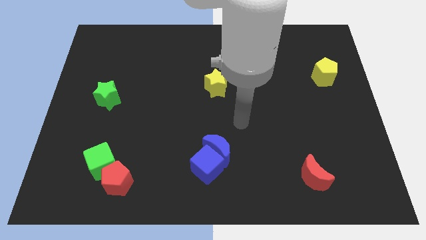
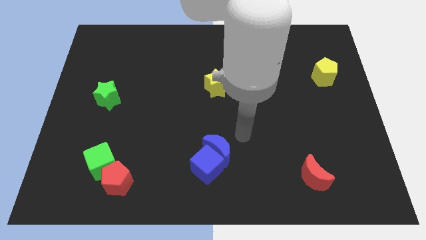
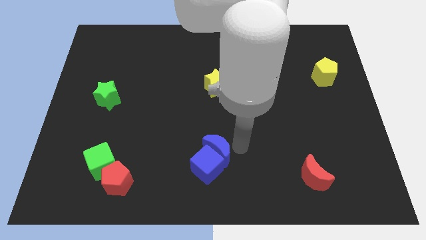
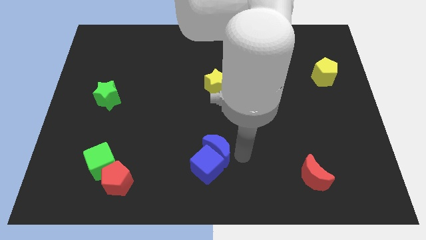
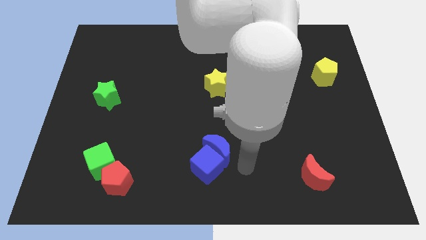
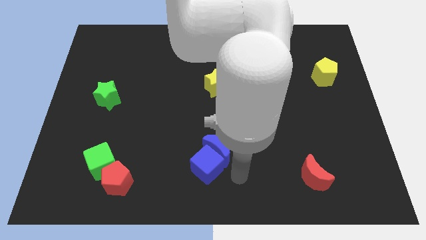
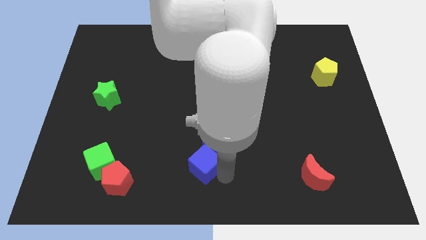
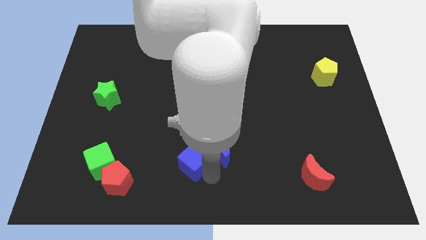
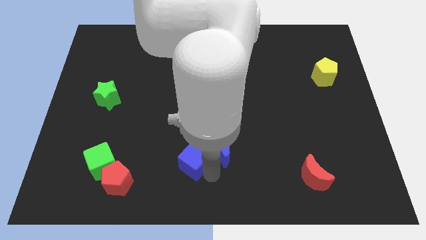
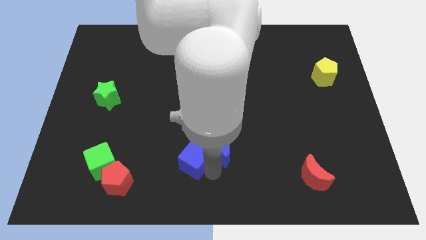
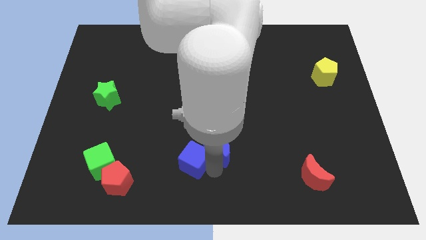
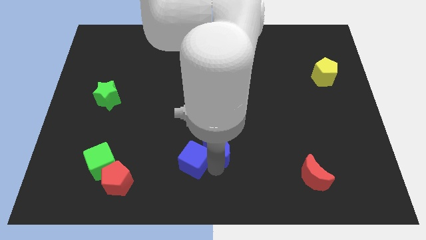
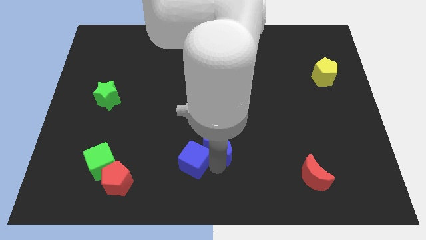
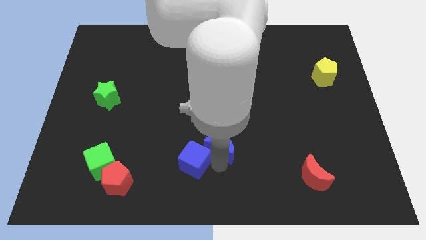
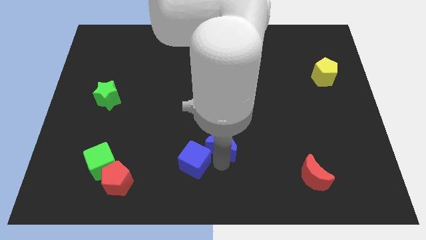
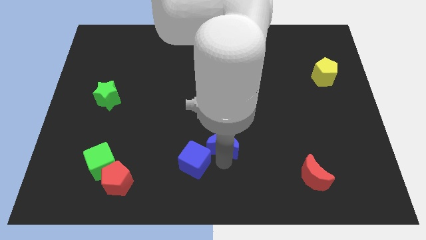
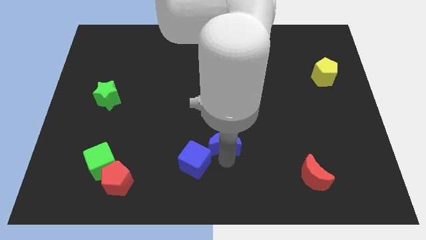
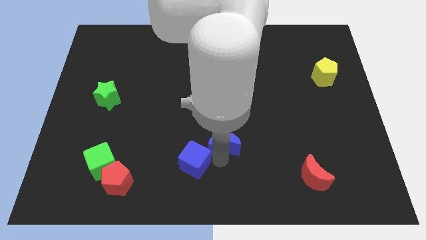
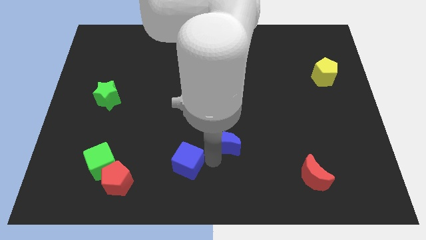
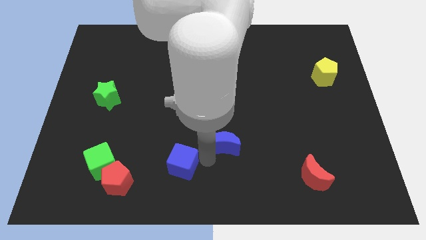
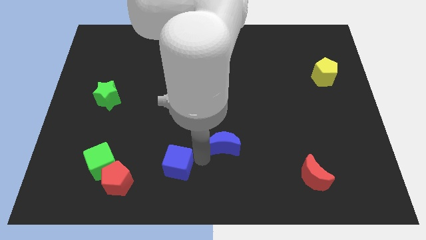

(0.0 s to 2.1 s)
separate the blue moon from the blue cube

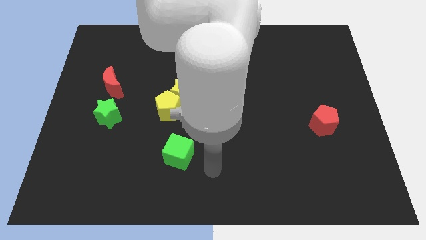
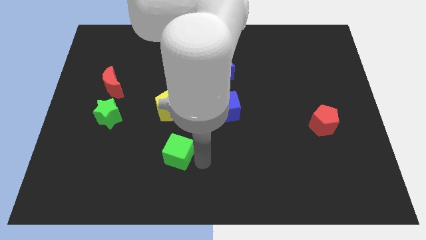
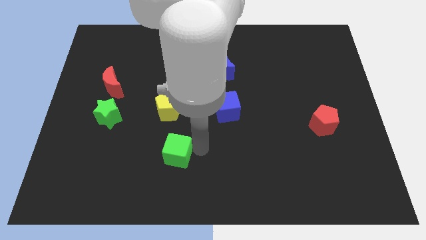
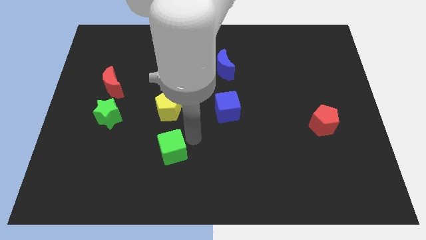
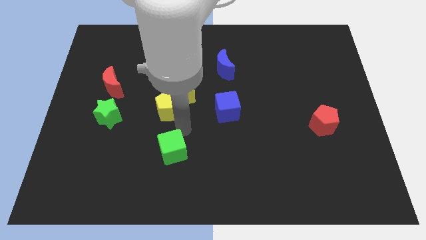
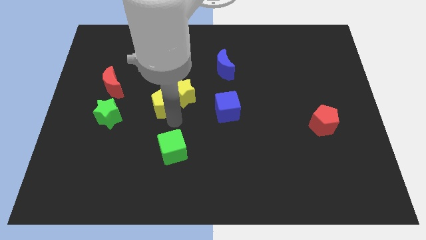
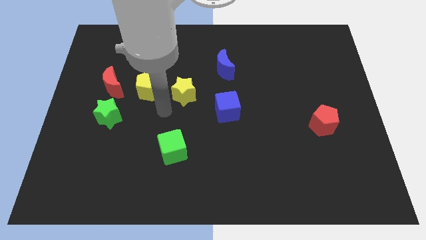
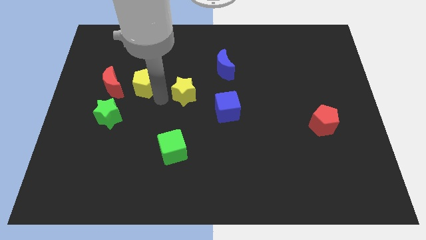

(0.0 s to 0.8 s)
separate the yellow star from the yellow pentagon

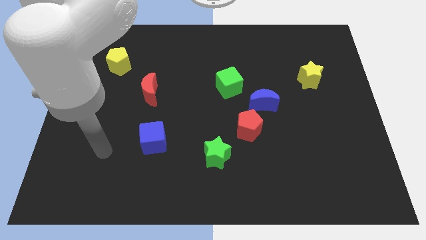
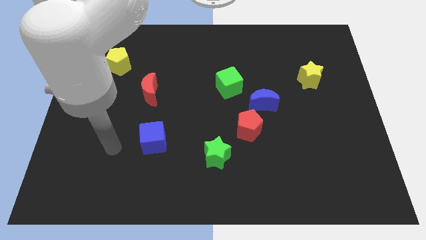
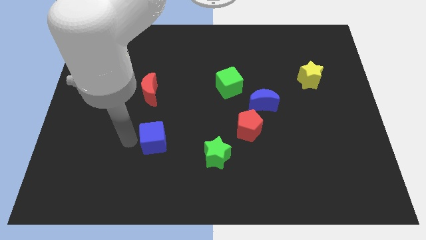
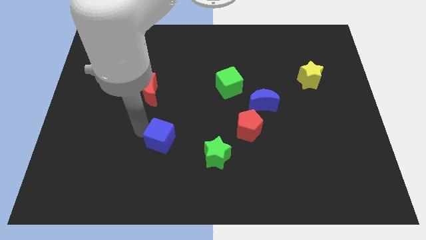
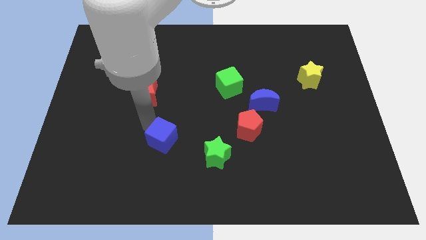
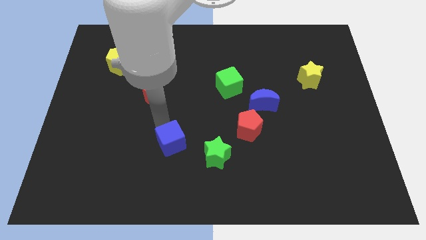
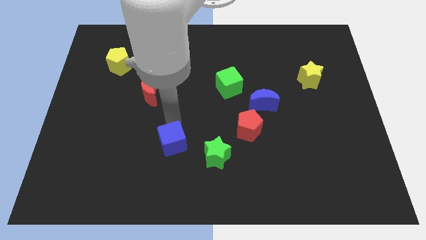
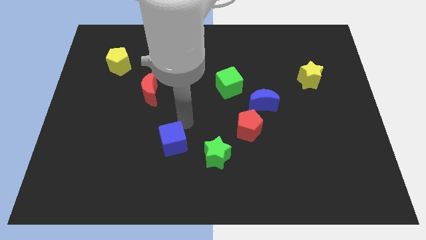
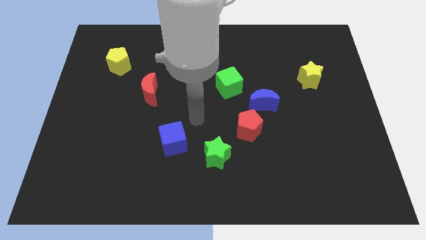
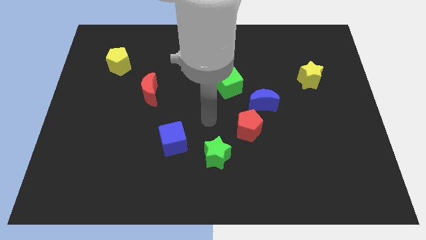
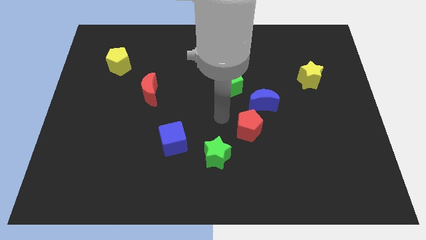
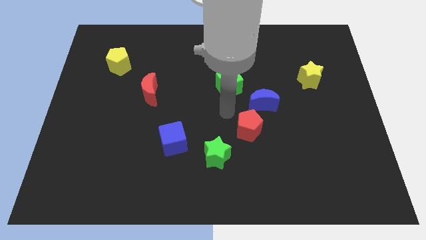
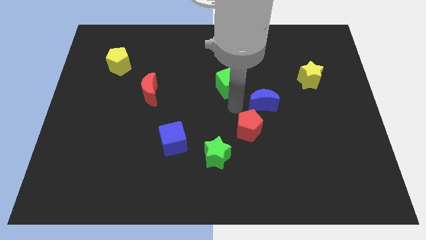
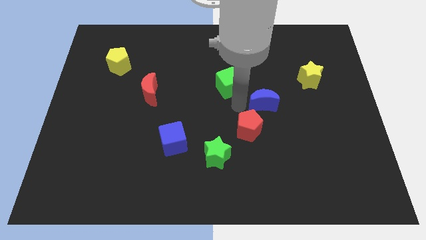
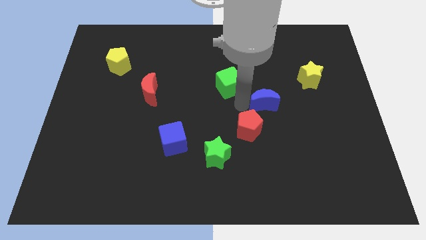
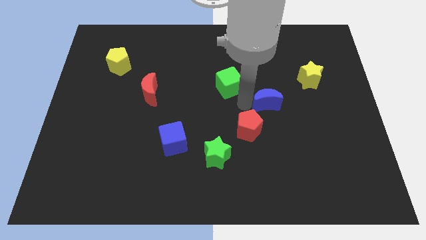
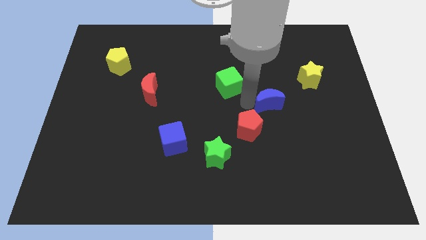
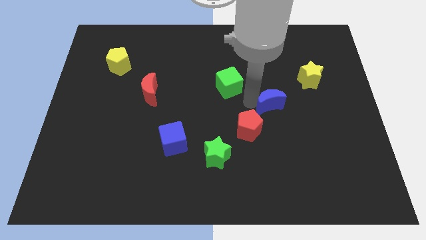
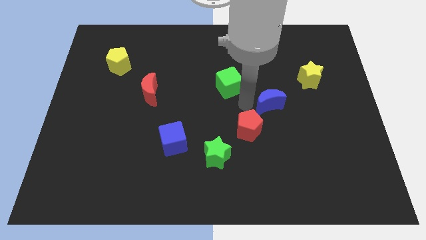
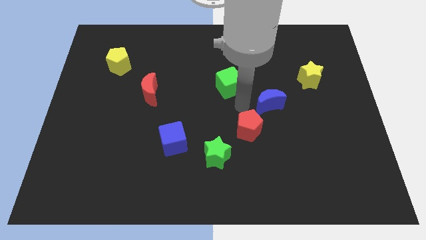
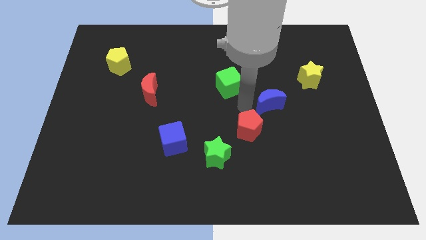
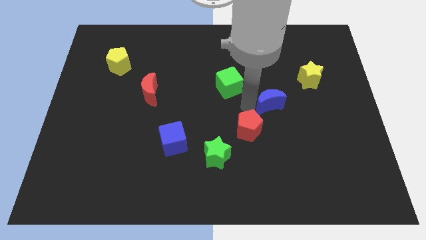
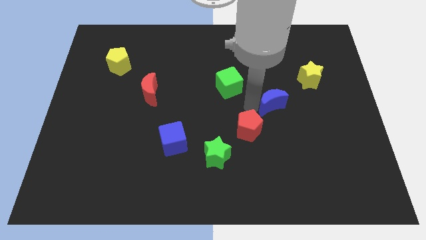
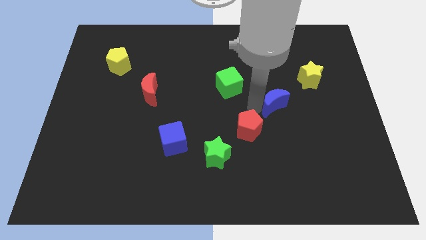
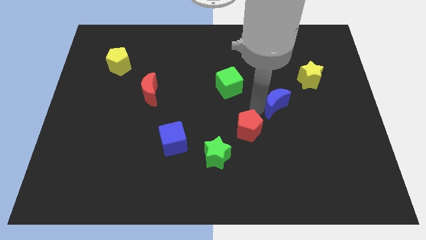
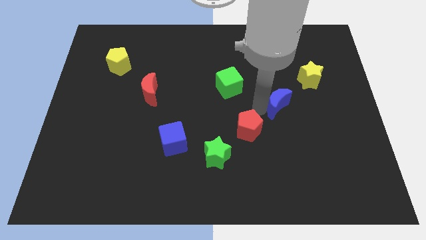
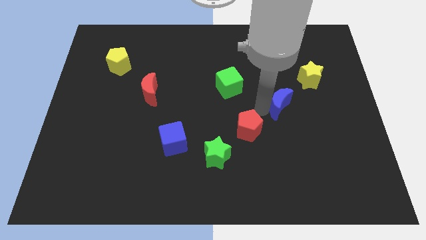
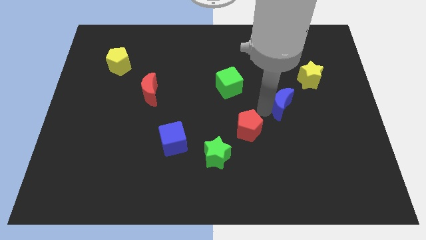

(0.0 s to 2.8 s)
pull the blue moon apart from the red pentagon and green cube

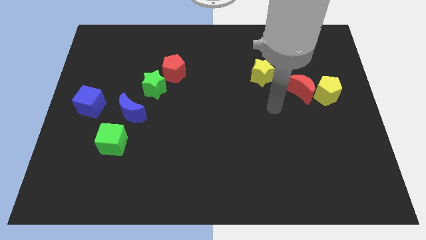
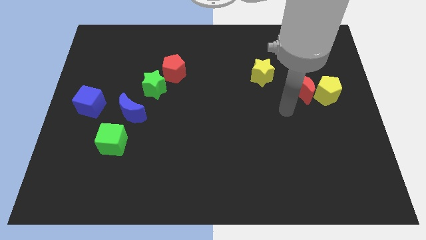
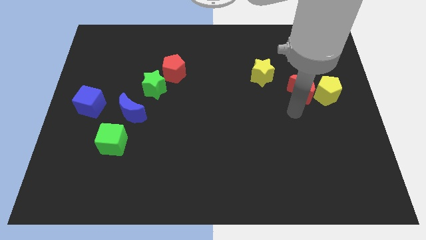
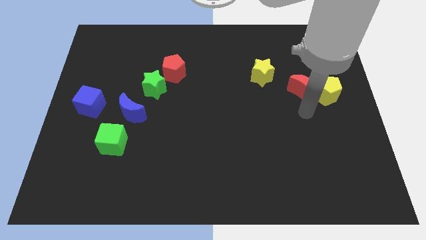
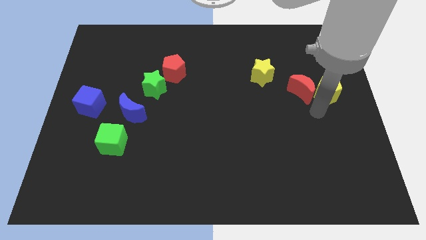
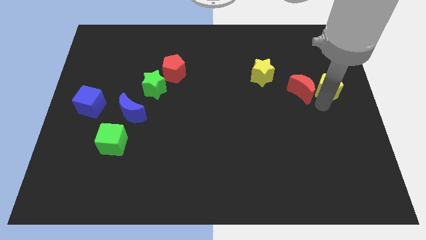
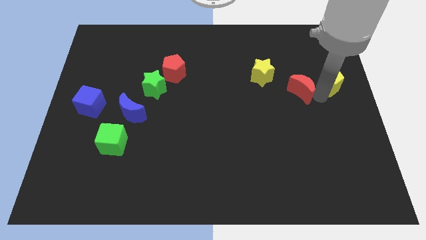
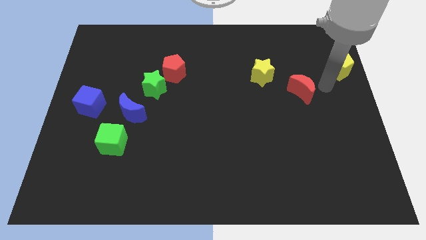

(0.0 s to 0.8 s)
move the red moon away from the yellow pentagon

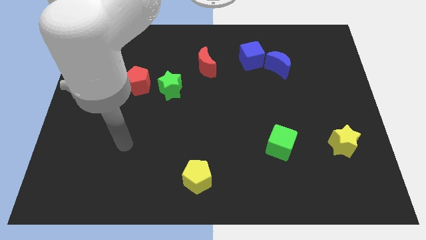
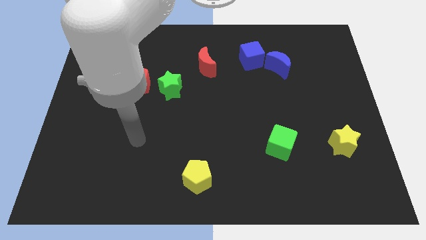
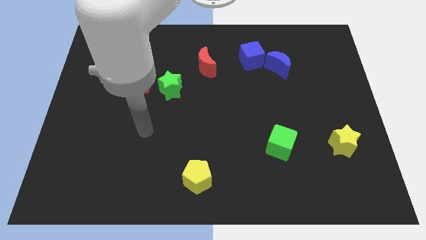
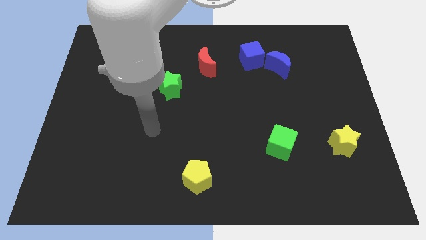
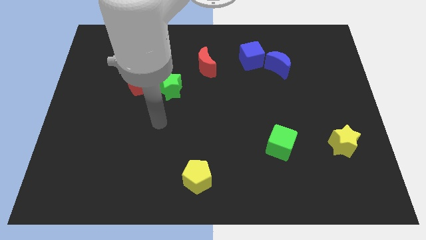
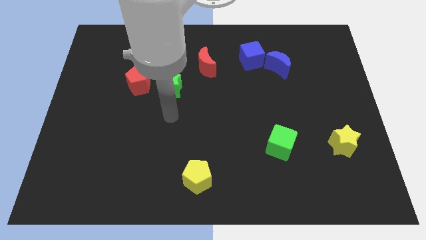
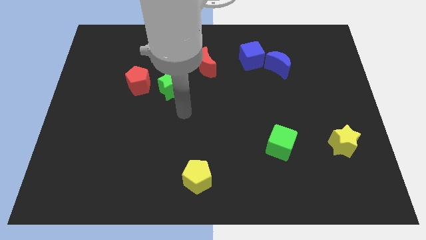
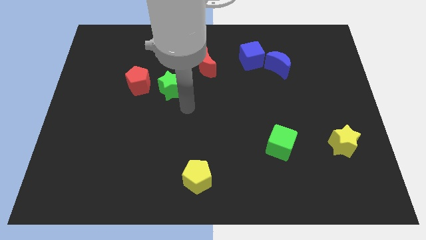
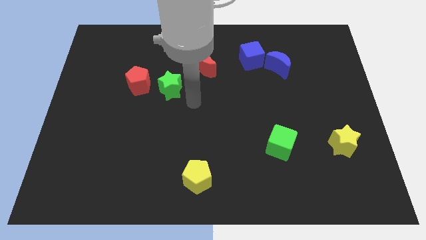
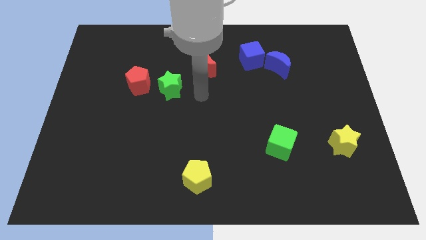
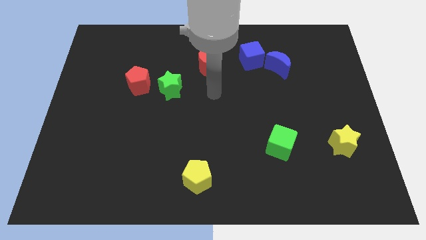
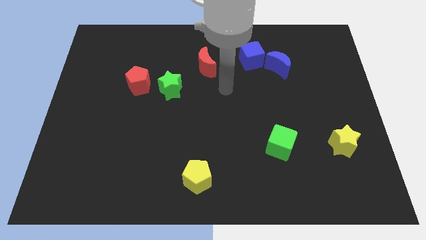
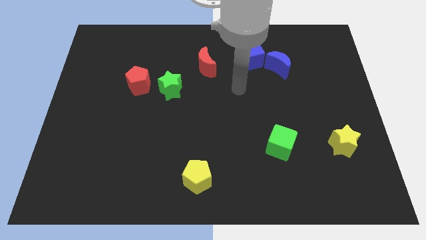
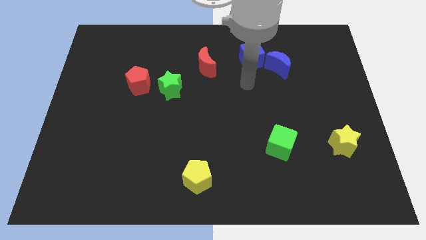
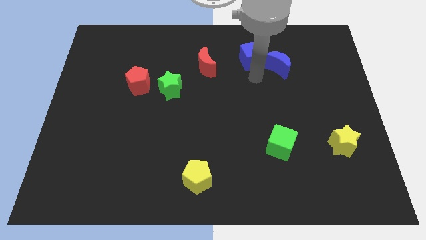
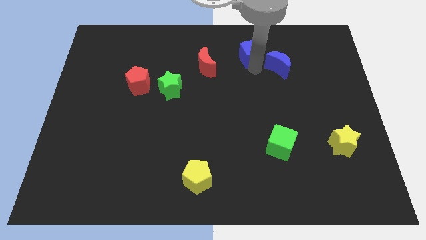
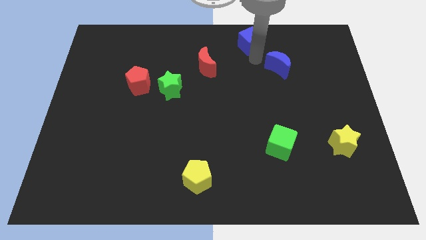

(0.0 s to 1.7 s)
pull the blue moon apart from the blue cube

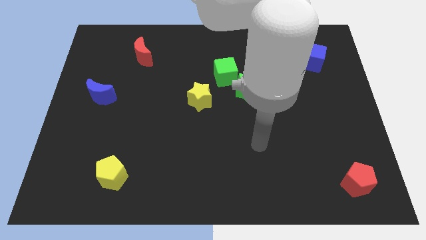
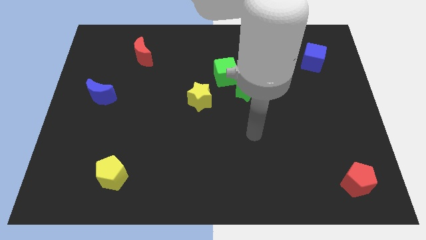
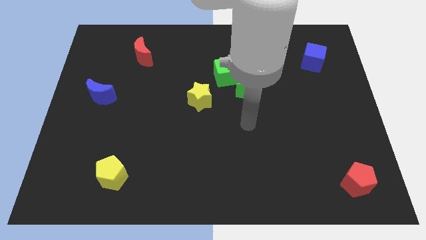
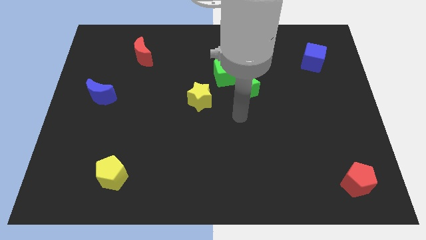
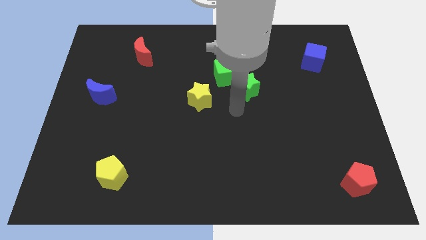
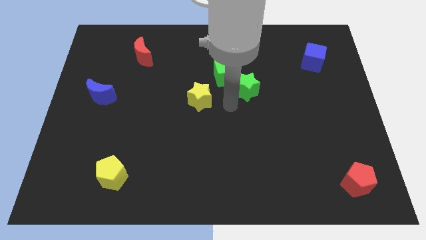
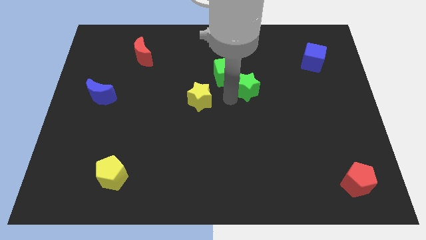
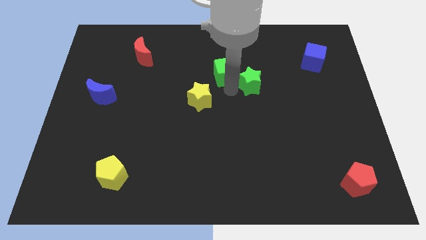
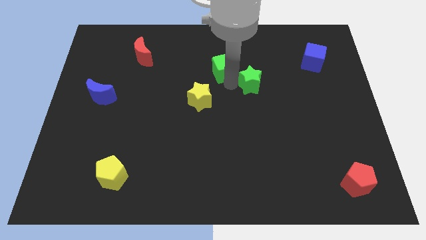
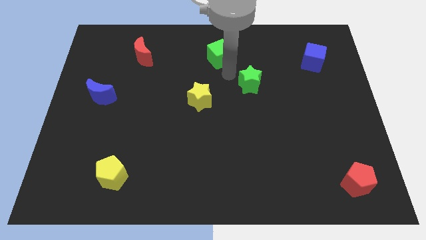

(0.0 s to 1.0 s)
move the green star away from the green cube
